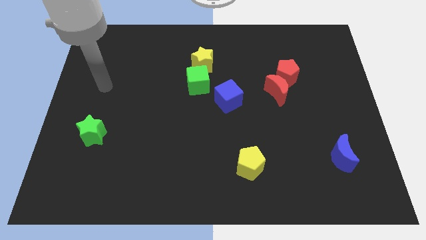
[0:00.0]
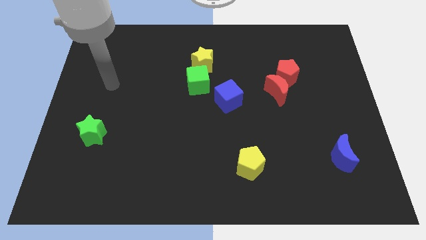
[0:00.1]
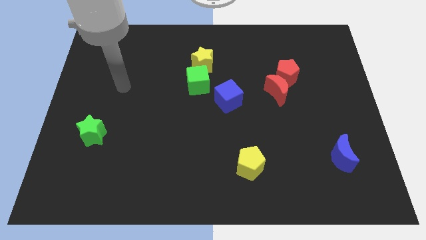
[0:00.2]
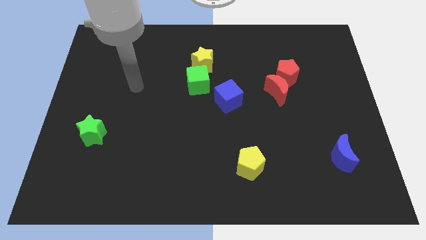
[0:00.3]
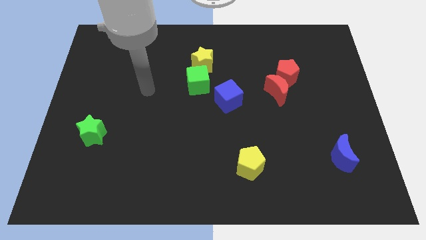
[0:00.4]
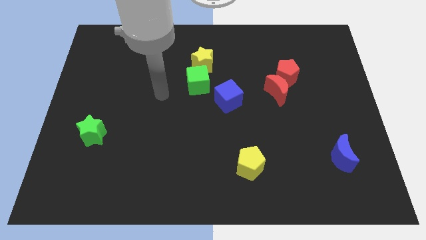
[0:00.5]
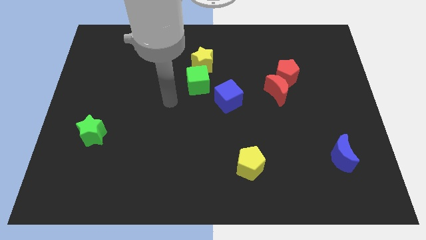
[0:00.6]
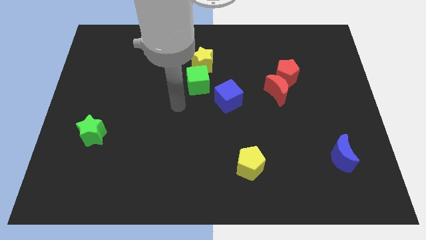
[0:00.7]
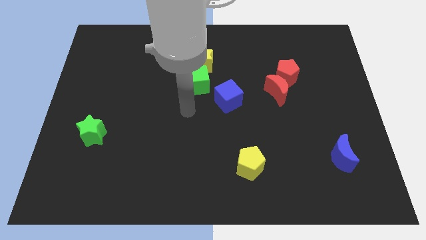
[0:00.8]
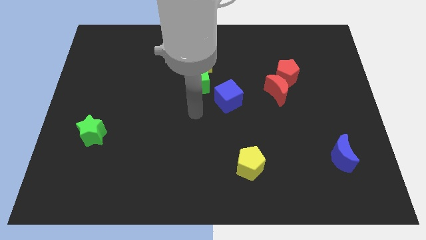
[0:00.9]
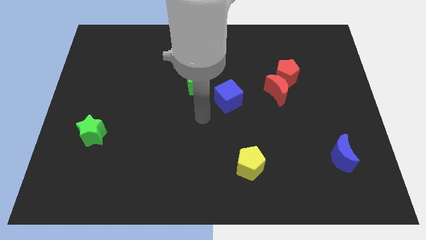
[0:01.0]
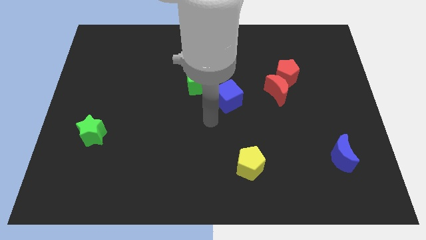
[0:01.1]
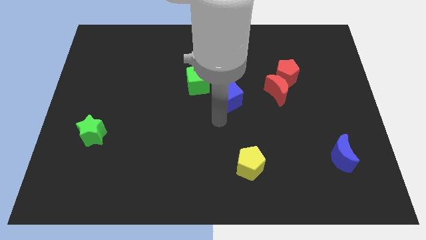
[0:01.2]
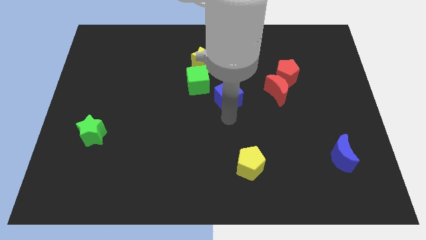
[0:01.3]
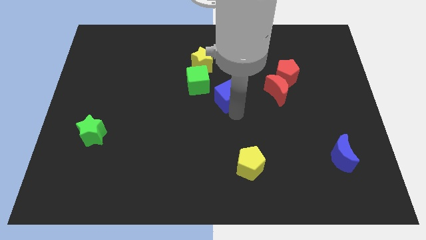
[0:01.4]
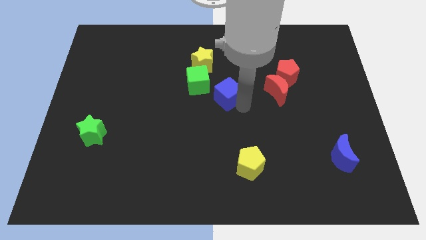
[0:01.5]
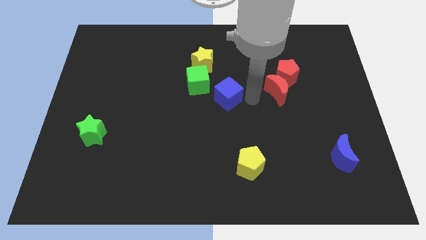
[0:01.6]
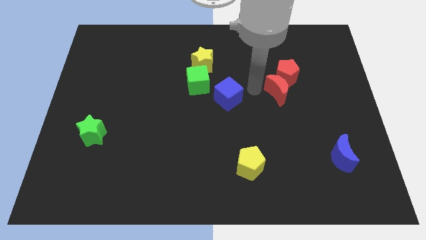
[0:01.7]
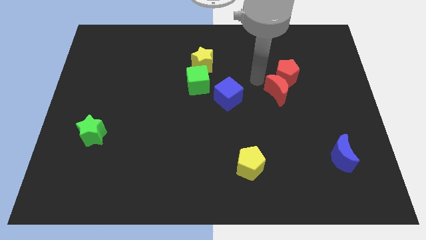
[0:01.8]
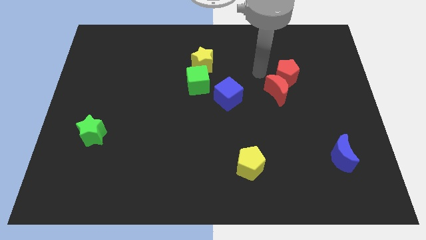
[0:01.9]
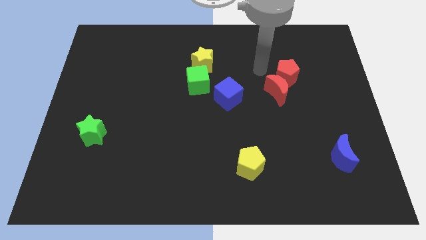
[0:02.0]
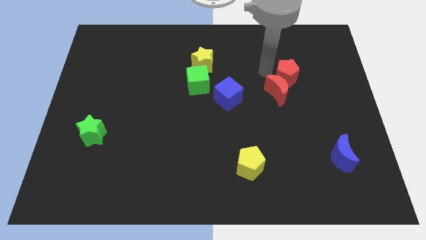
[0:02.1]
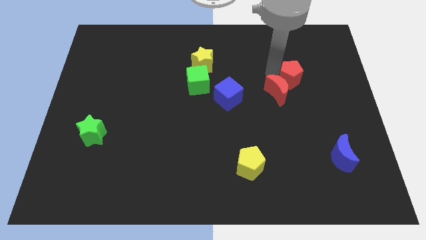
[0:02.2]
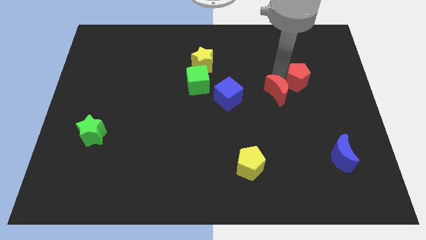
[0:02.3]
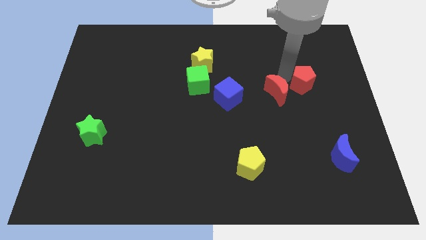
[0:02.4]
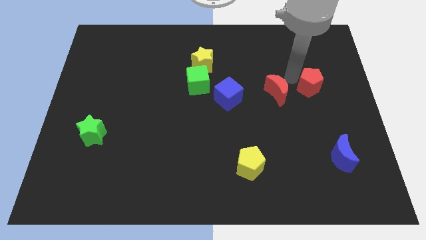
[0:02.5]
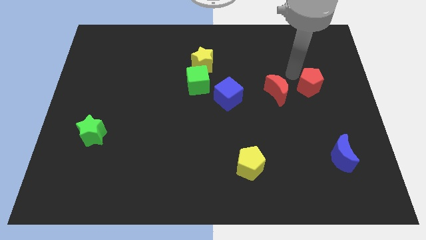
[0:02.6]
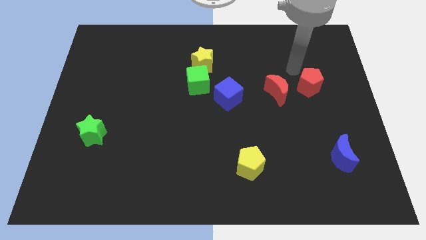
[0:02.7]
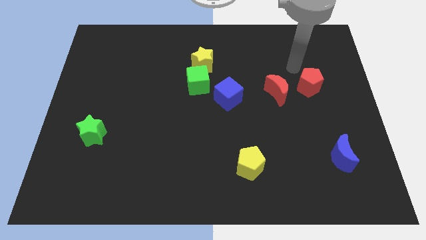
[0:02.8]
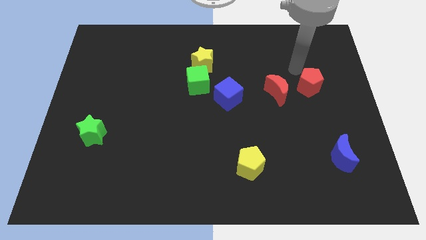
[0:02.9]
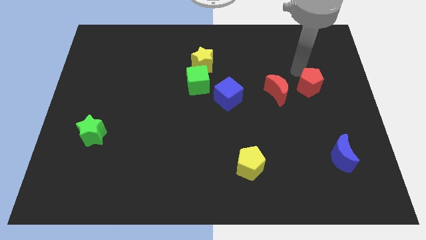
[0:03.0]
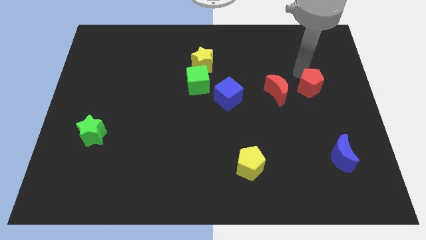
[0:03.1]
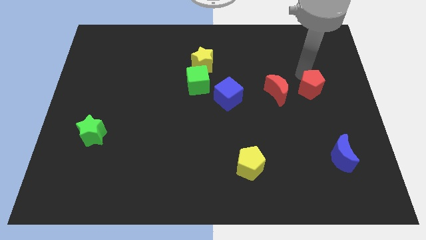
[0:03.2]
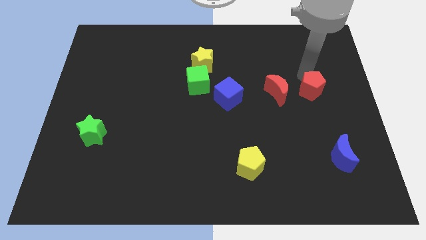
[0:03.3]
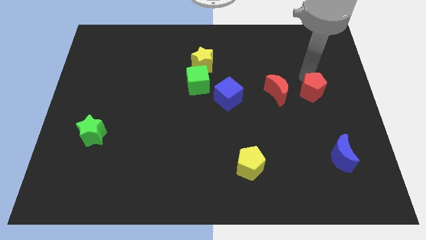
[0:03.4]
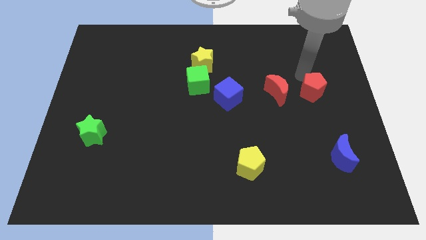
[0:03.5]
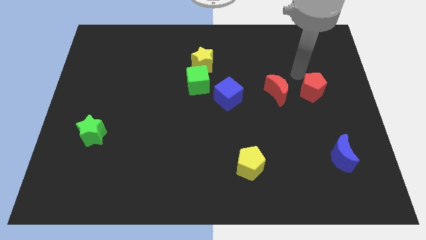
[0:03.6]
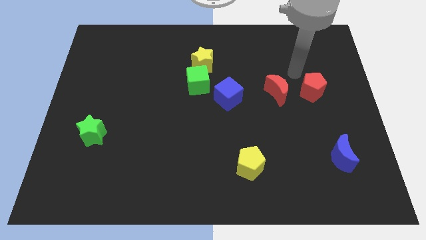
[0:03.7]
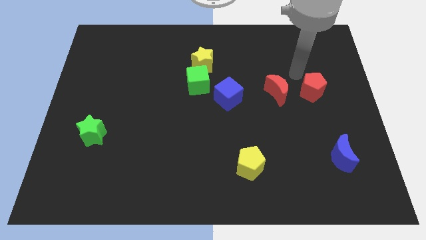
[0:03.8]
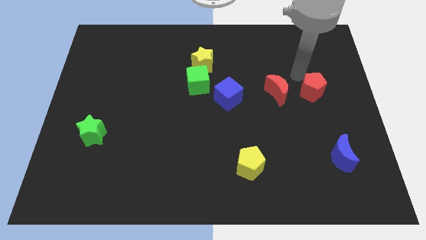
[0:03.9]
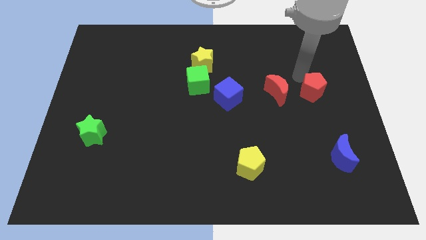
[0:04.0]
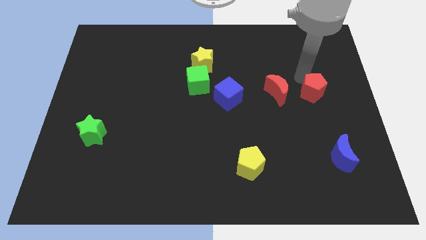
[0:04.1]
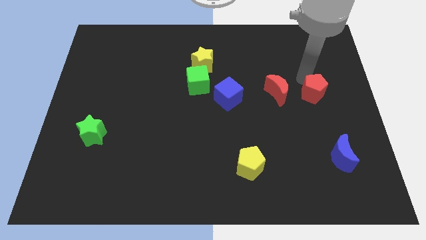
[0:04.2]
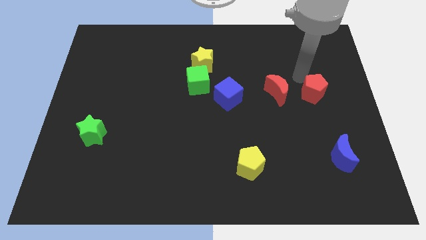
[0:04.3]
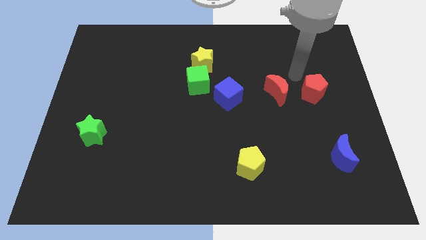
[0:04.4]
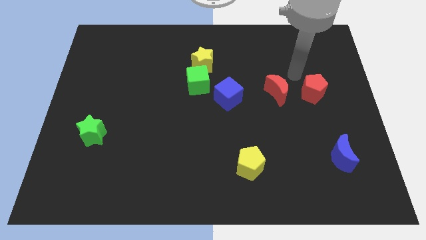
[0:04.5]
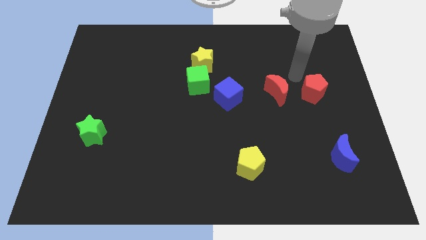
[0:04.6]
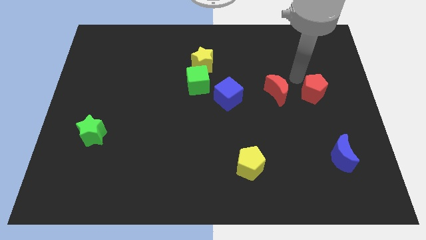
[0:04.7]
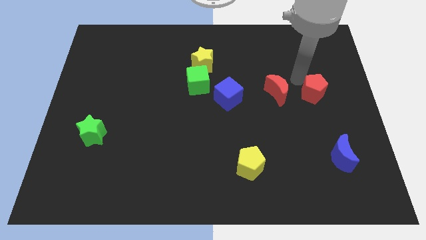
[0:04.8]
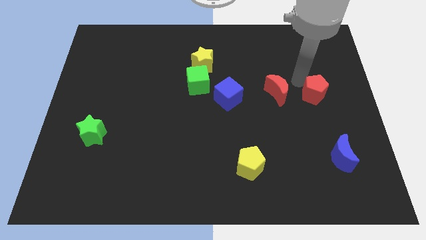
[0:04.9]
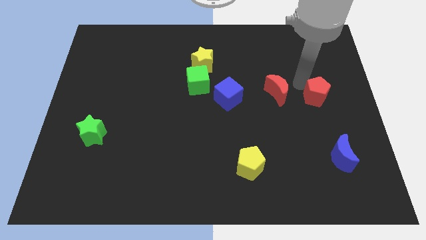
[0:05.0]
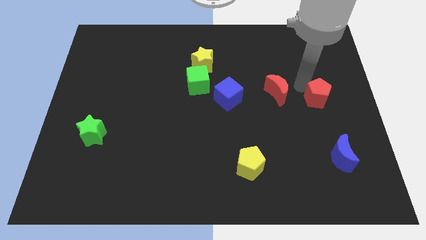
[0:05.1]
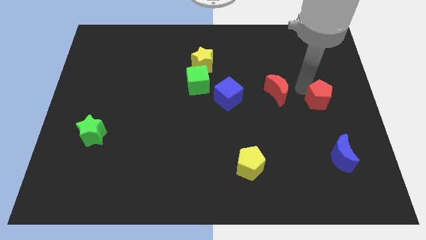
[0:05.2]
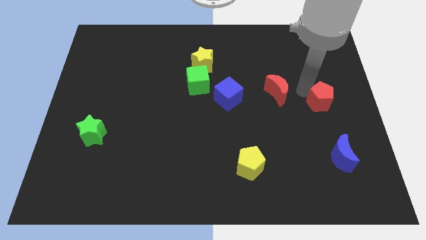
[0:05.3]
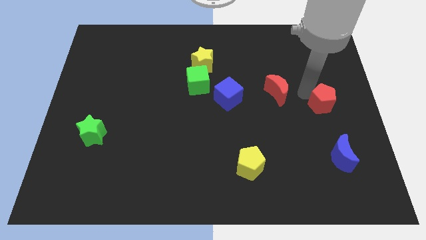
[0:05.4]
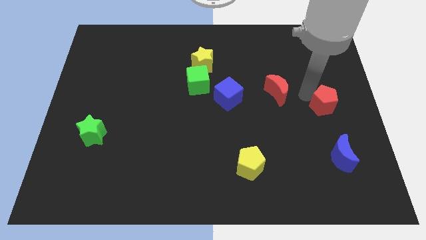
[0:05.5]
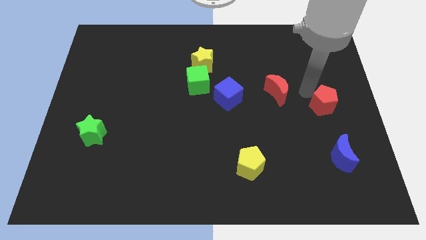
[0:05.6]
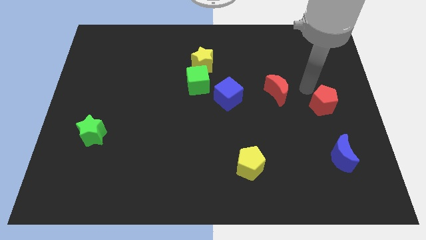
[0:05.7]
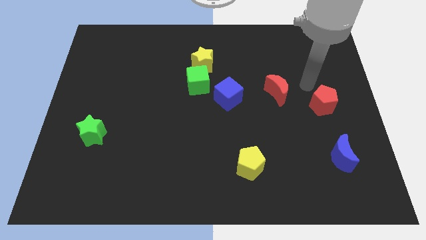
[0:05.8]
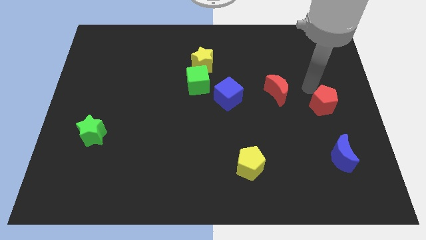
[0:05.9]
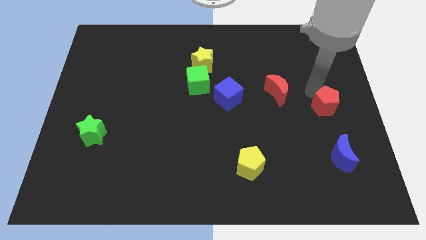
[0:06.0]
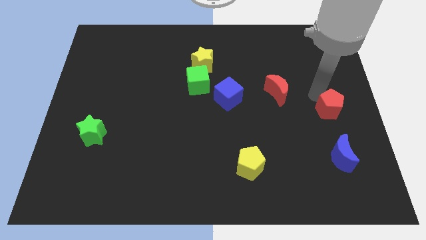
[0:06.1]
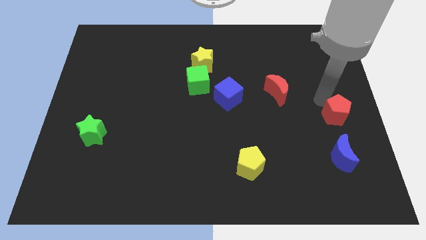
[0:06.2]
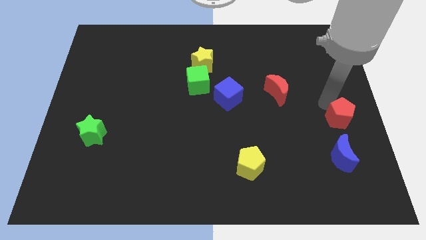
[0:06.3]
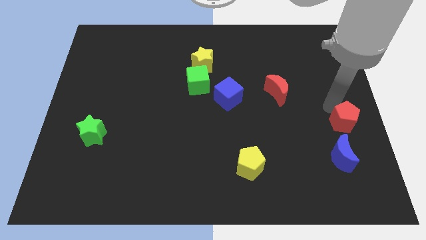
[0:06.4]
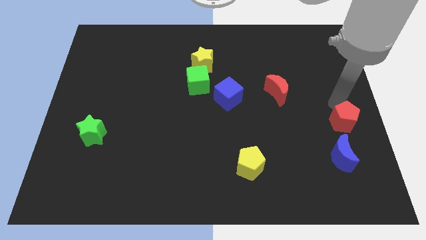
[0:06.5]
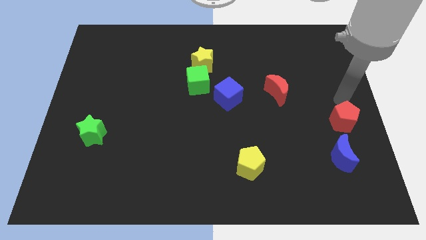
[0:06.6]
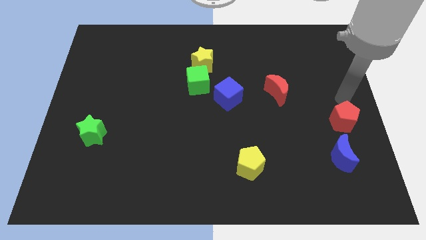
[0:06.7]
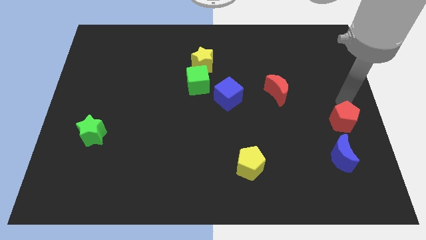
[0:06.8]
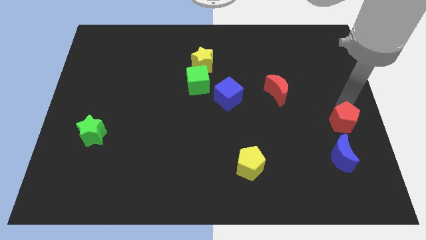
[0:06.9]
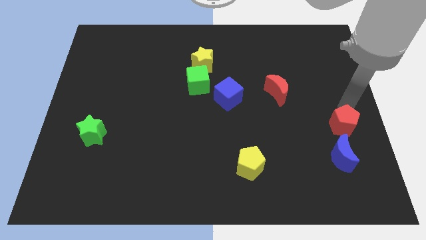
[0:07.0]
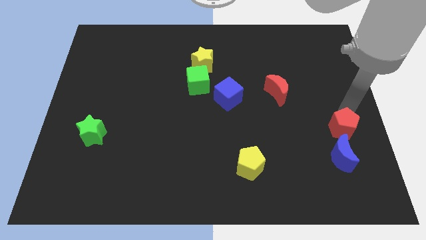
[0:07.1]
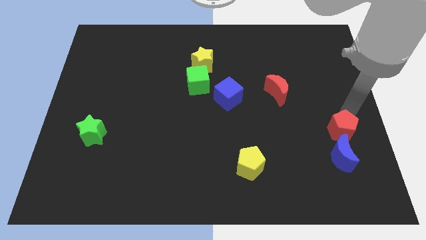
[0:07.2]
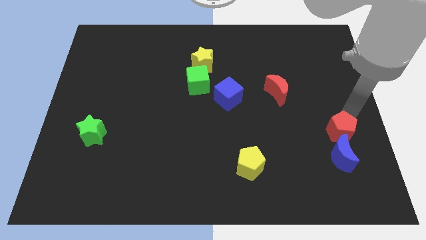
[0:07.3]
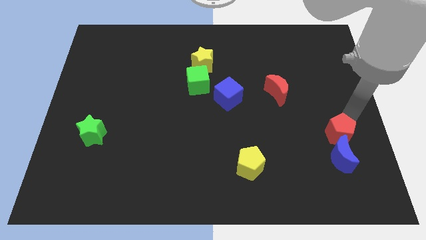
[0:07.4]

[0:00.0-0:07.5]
move the red pentagon towards the blue moon
